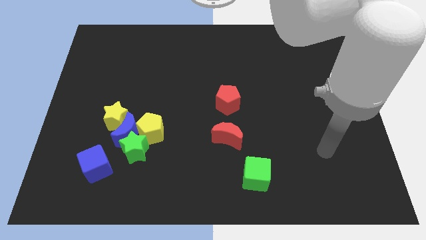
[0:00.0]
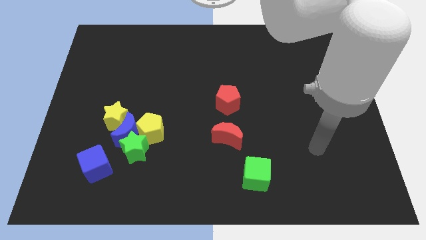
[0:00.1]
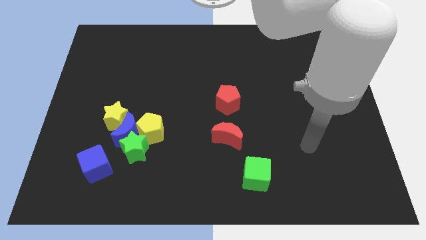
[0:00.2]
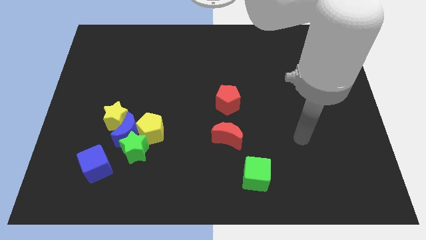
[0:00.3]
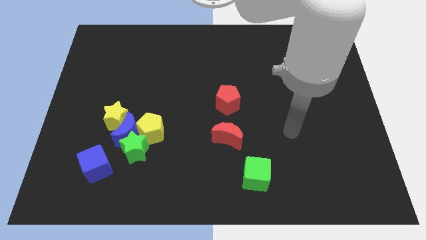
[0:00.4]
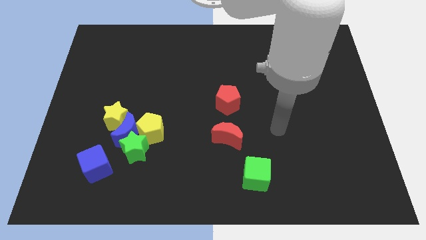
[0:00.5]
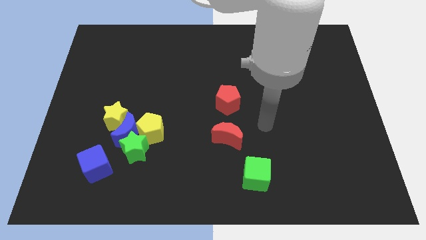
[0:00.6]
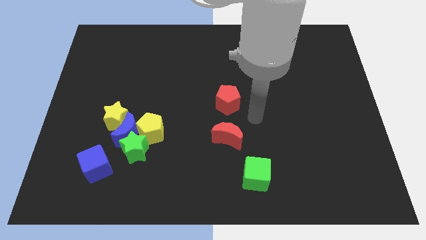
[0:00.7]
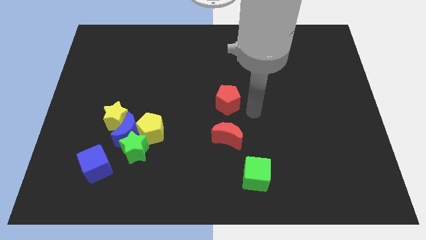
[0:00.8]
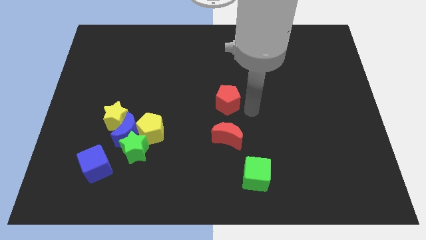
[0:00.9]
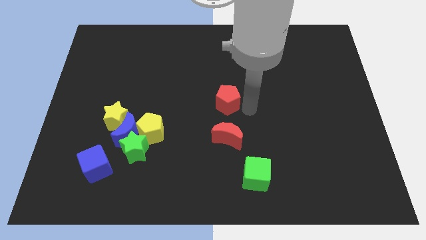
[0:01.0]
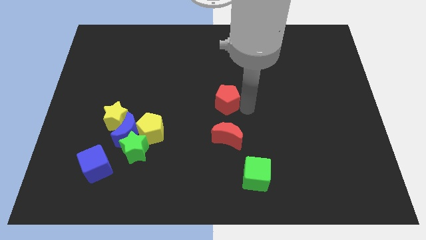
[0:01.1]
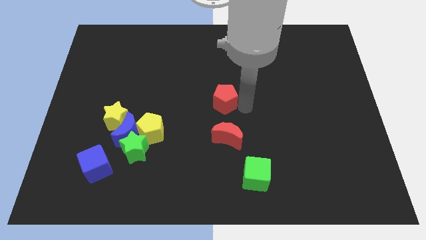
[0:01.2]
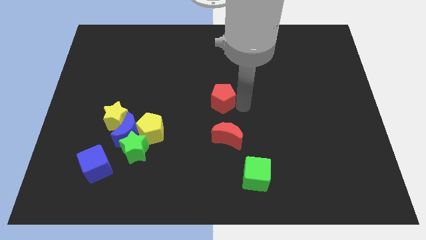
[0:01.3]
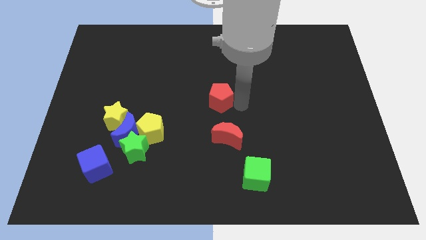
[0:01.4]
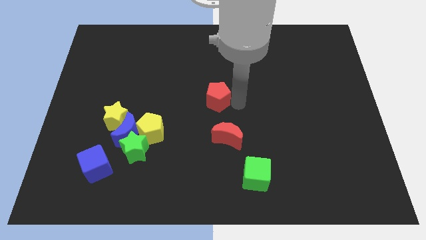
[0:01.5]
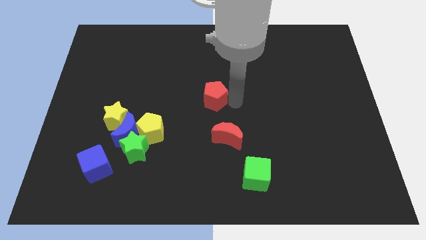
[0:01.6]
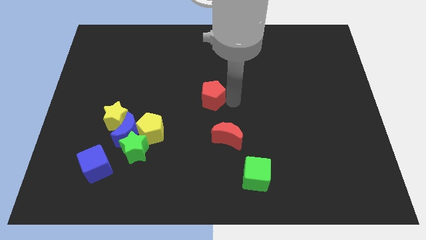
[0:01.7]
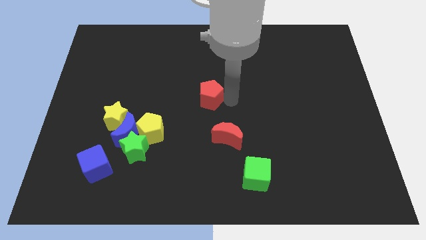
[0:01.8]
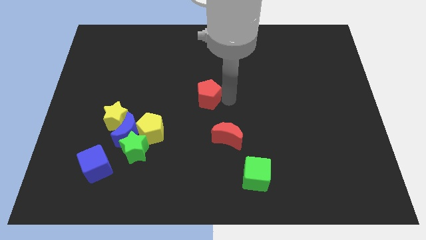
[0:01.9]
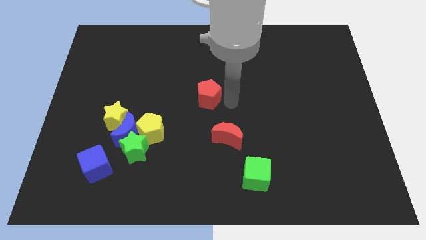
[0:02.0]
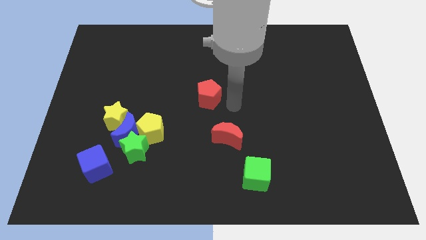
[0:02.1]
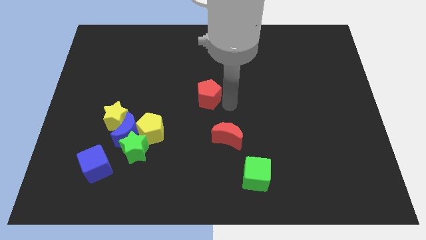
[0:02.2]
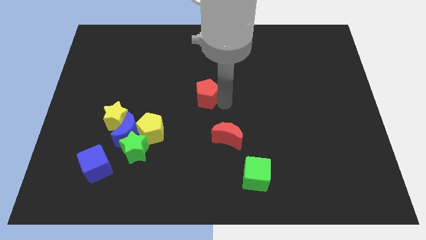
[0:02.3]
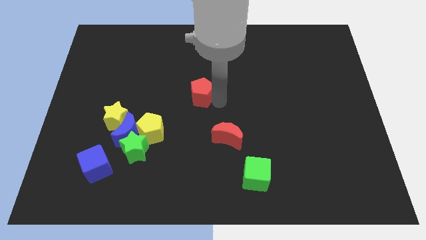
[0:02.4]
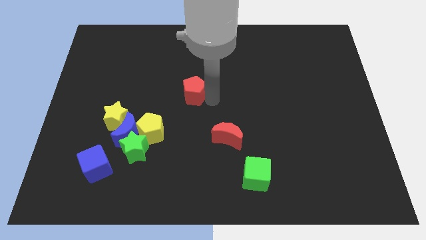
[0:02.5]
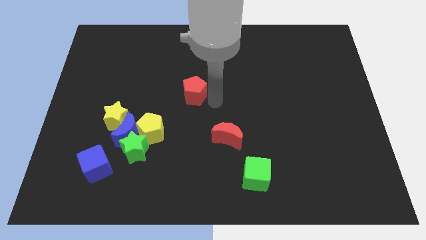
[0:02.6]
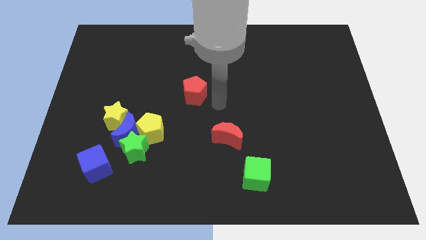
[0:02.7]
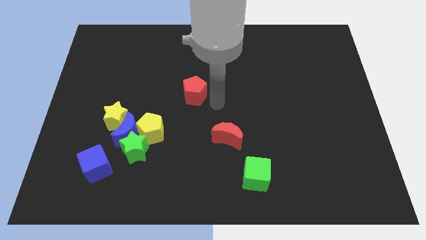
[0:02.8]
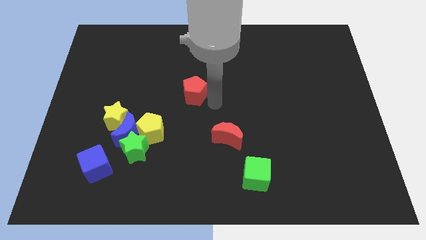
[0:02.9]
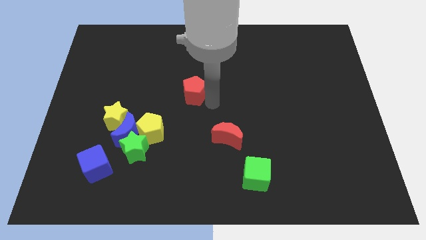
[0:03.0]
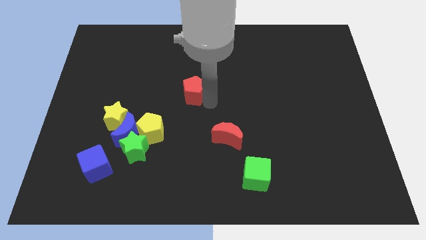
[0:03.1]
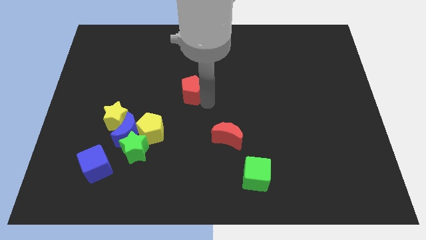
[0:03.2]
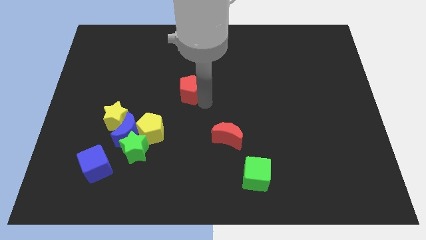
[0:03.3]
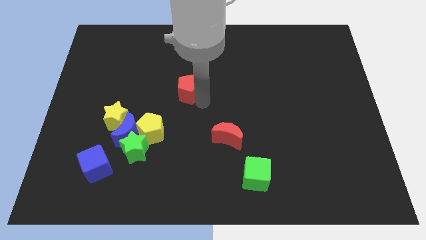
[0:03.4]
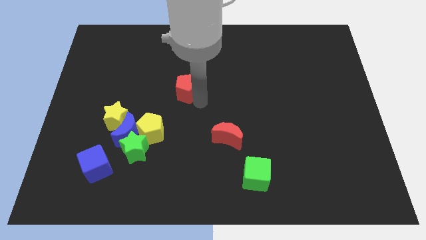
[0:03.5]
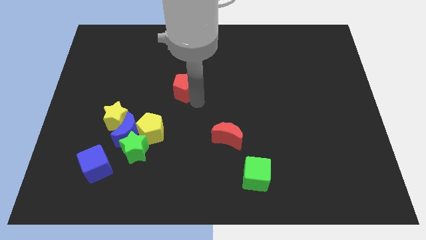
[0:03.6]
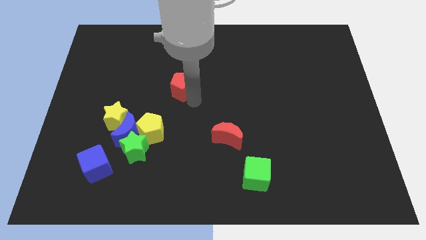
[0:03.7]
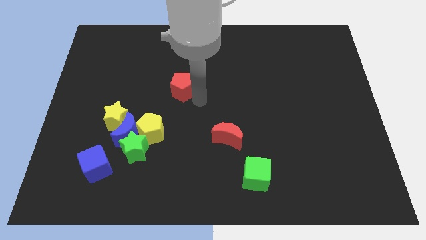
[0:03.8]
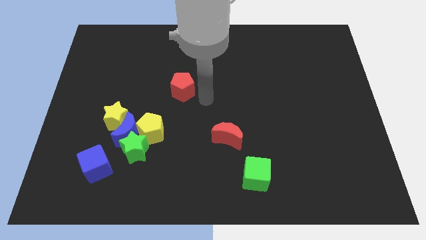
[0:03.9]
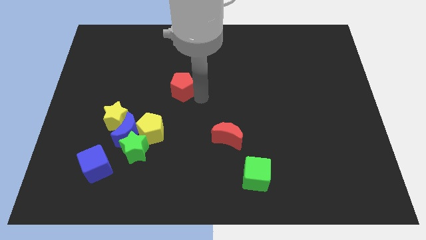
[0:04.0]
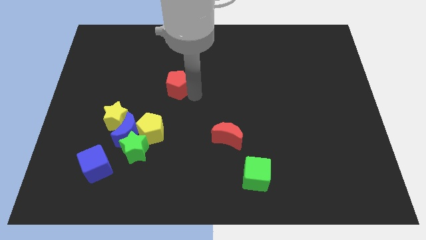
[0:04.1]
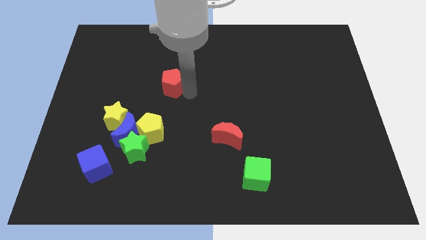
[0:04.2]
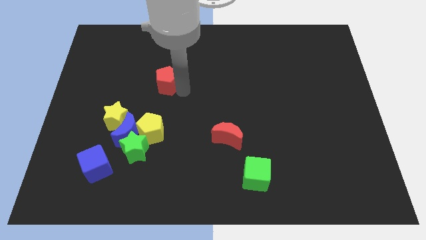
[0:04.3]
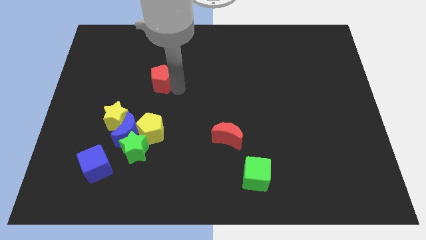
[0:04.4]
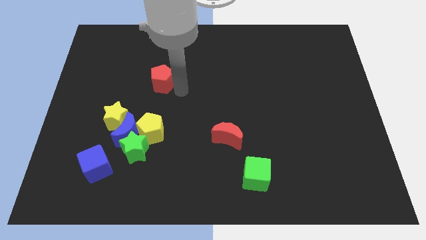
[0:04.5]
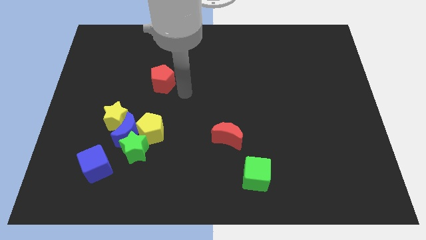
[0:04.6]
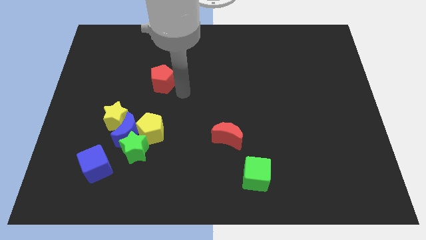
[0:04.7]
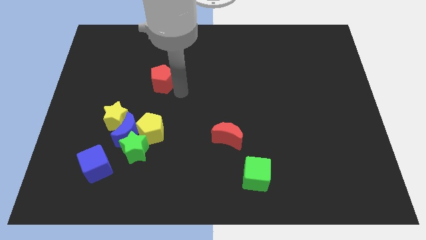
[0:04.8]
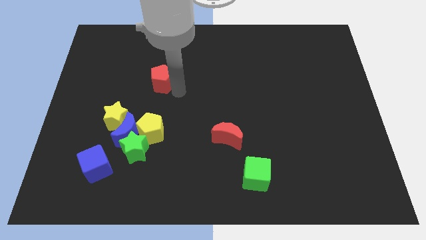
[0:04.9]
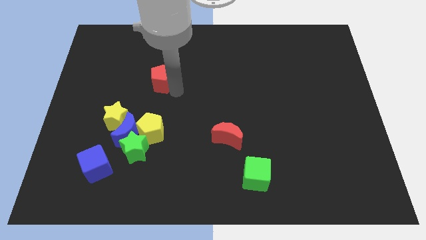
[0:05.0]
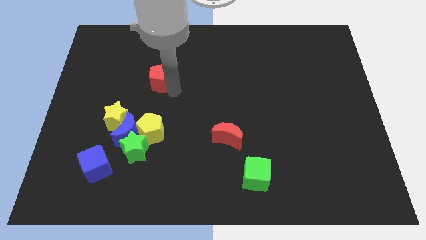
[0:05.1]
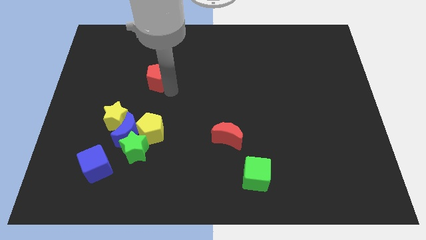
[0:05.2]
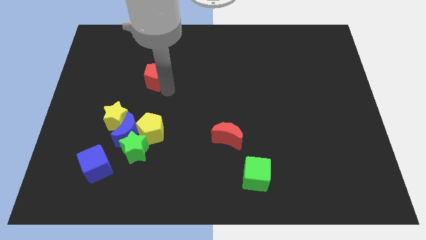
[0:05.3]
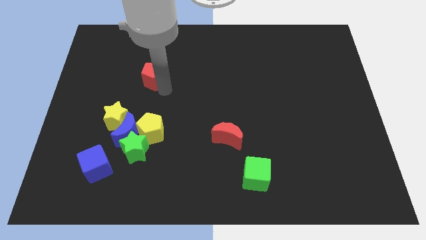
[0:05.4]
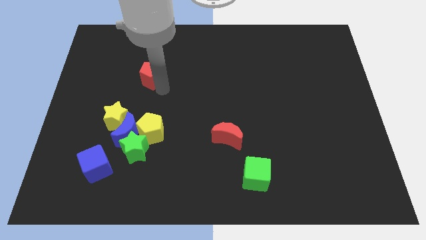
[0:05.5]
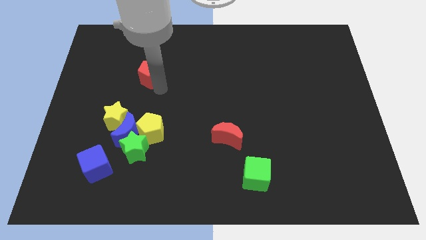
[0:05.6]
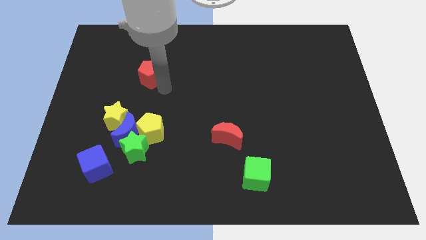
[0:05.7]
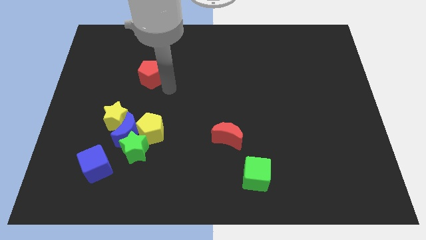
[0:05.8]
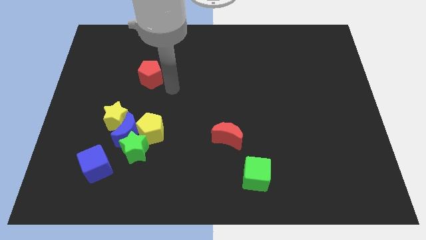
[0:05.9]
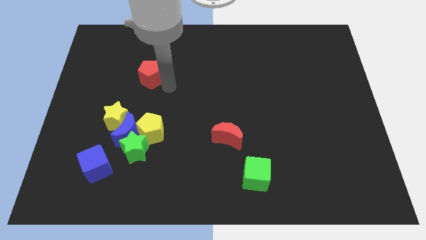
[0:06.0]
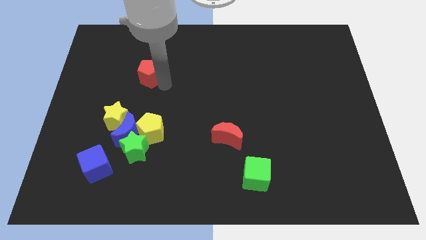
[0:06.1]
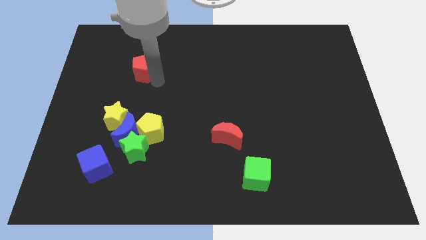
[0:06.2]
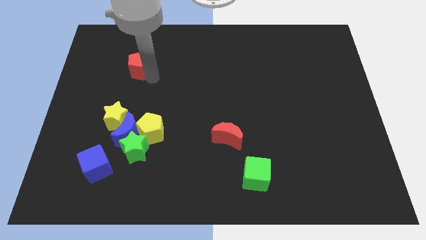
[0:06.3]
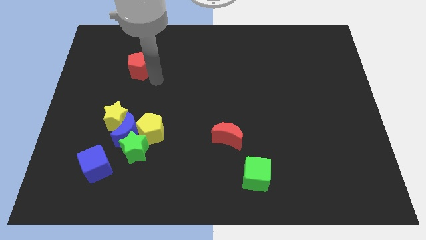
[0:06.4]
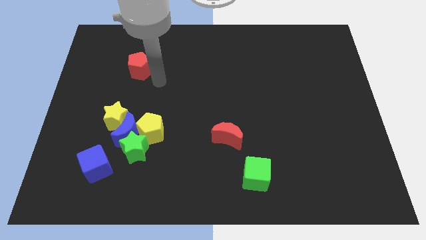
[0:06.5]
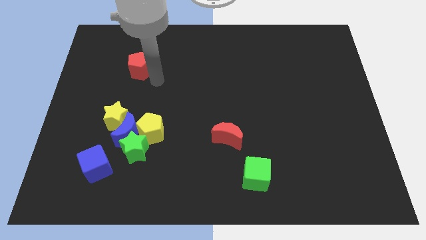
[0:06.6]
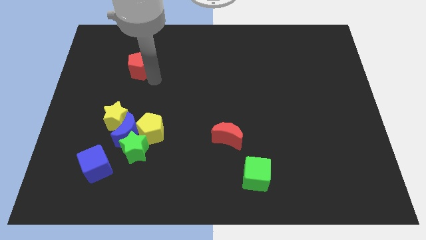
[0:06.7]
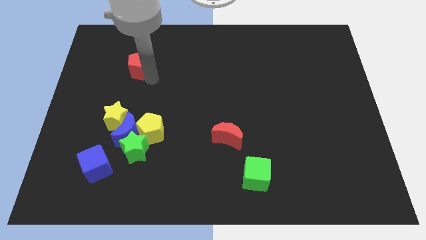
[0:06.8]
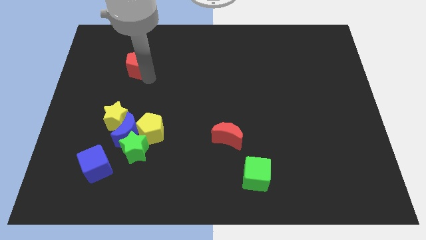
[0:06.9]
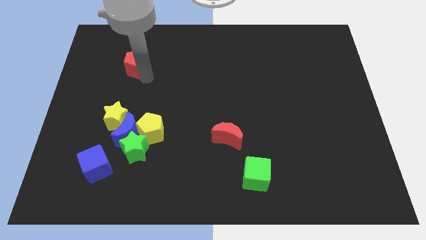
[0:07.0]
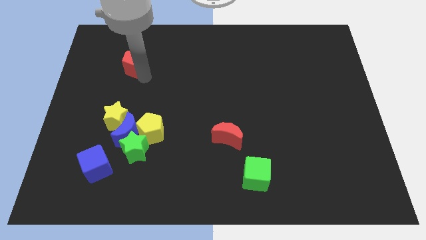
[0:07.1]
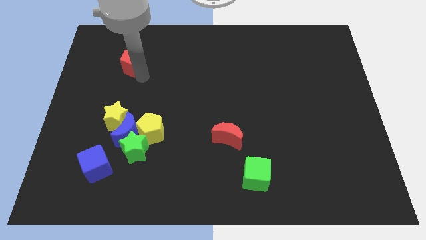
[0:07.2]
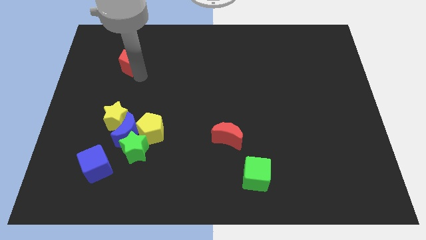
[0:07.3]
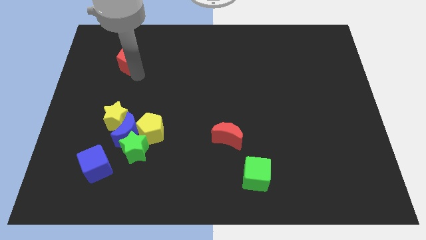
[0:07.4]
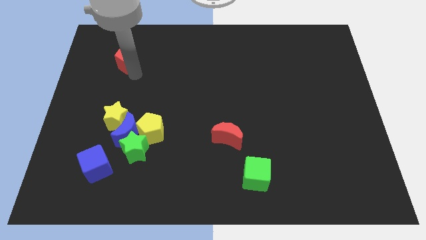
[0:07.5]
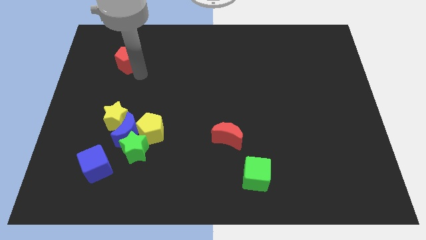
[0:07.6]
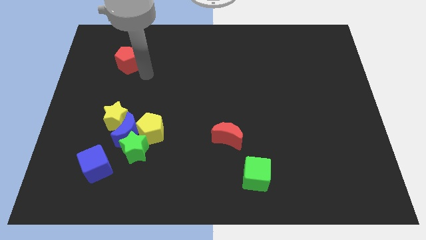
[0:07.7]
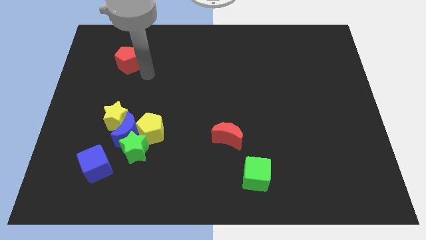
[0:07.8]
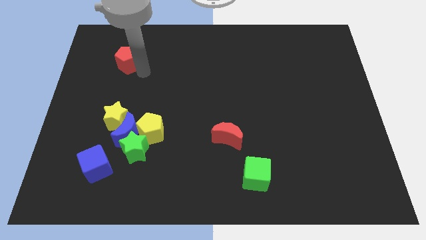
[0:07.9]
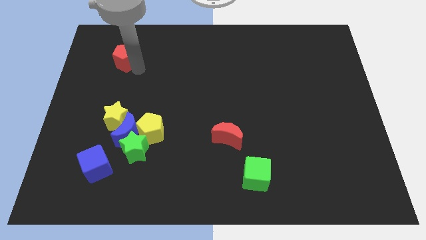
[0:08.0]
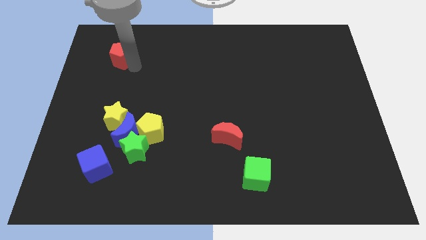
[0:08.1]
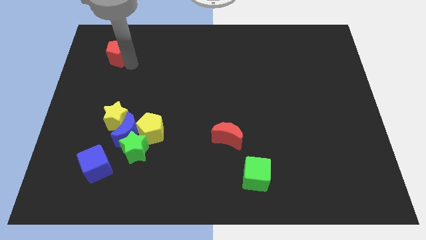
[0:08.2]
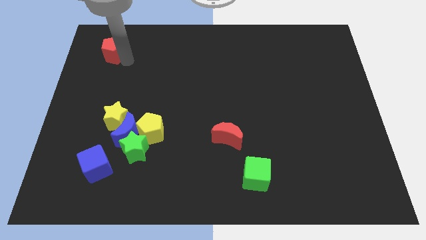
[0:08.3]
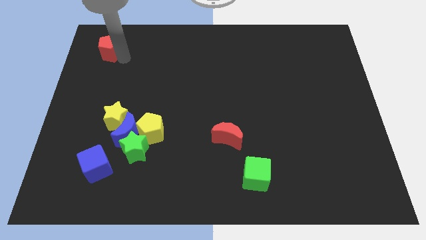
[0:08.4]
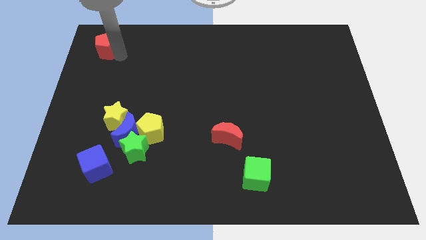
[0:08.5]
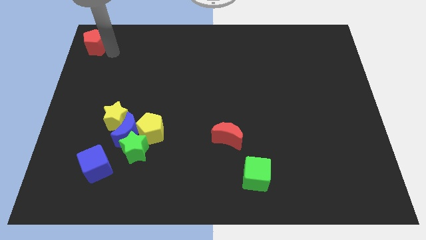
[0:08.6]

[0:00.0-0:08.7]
push the red pentagon to the top left
